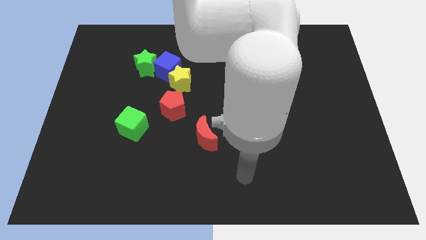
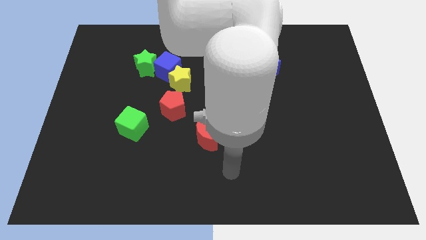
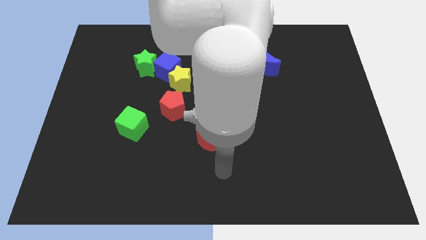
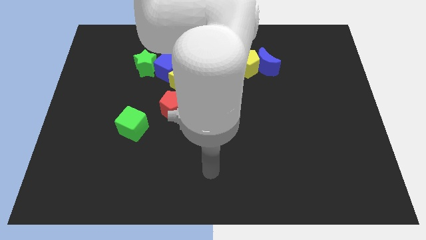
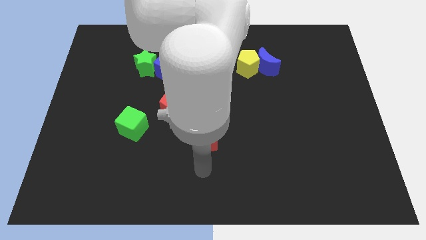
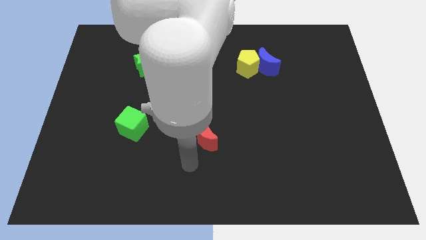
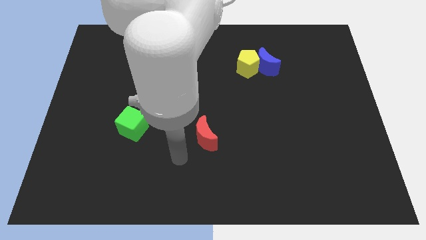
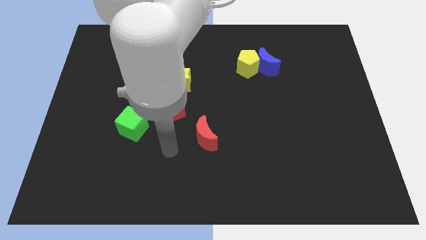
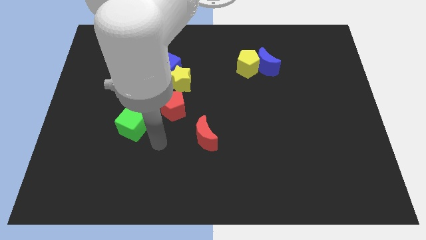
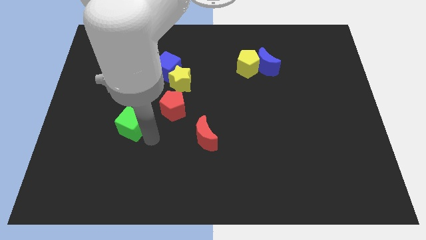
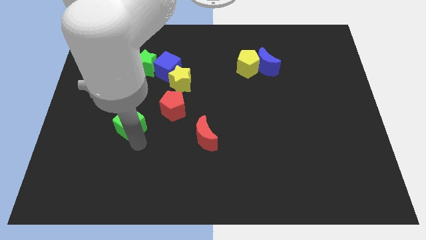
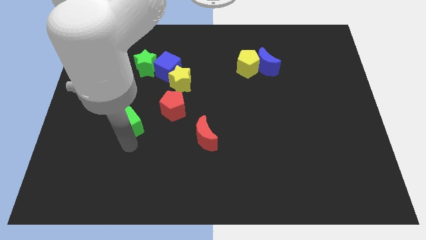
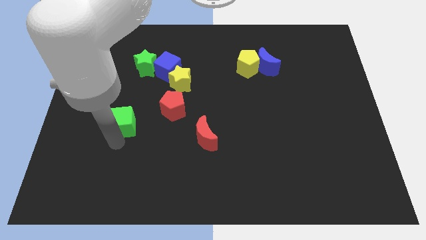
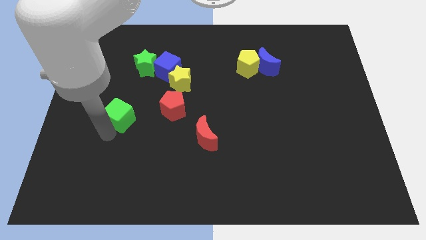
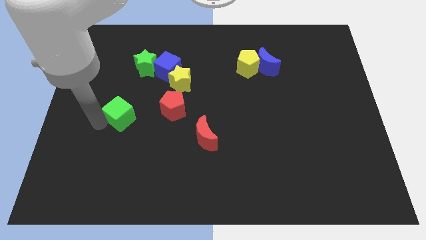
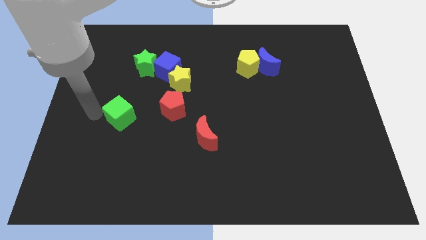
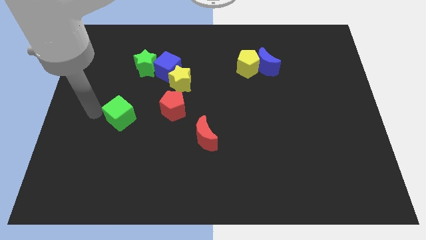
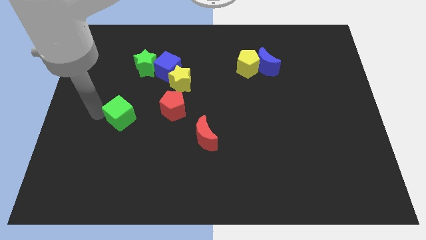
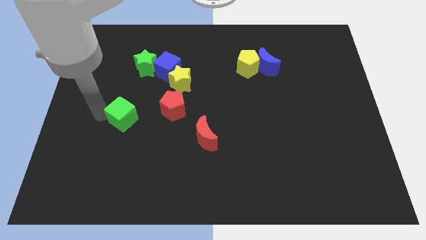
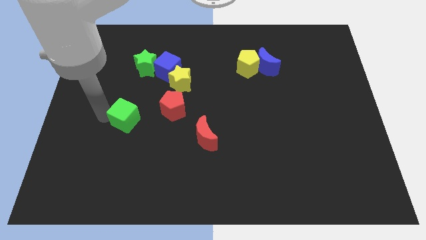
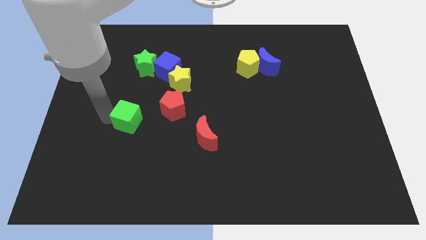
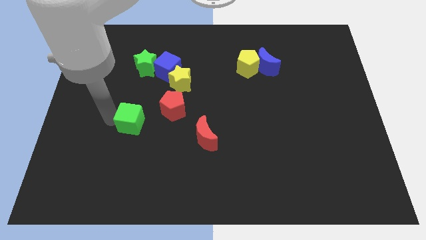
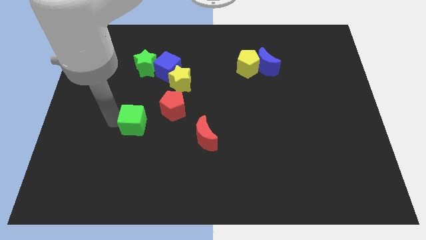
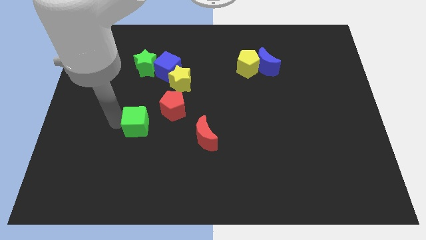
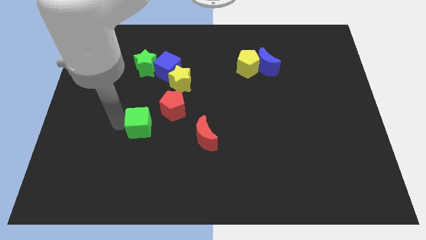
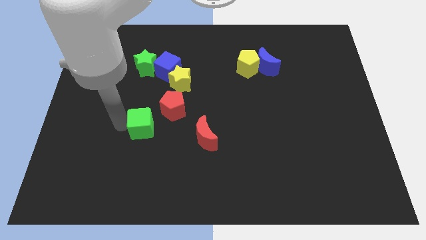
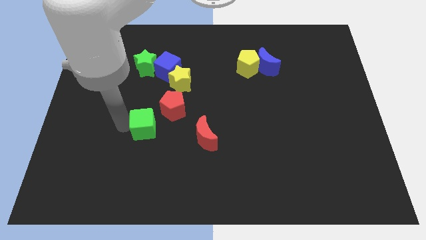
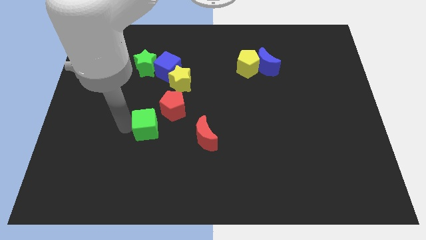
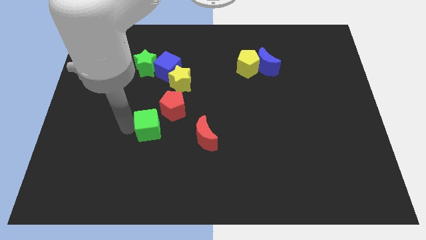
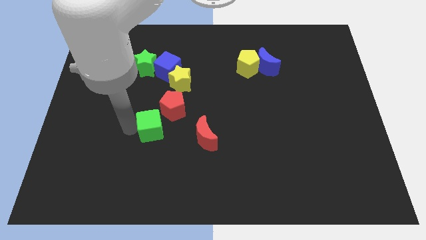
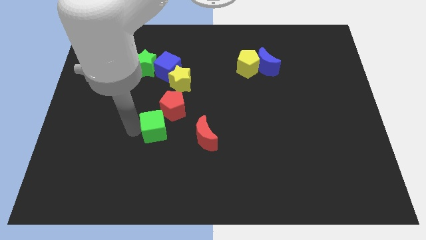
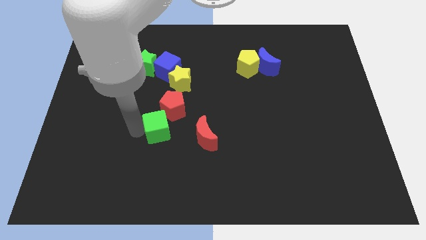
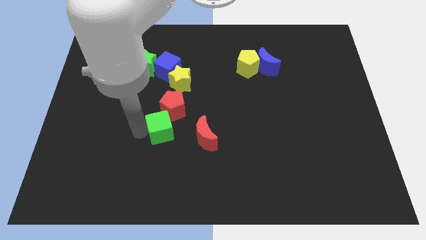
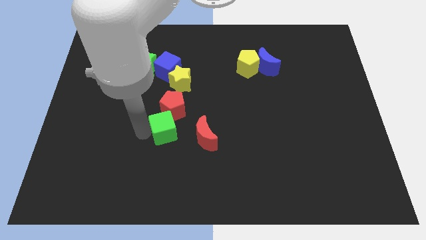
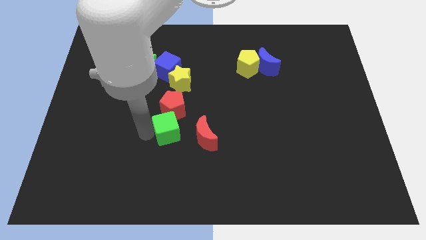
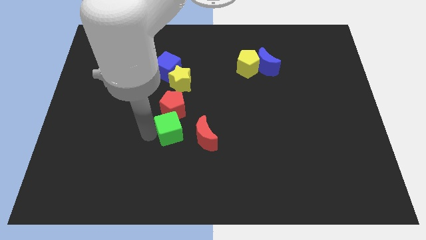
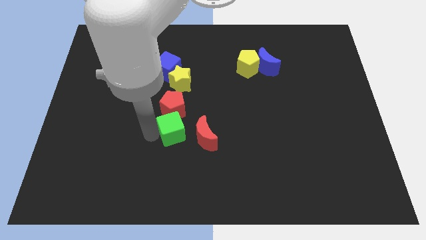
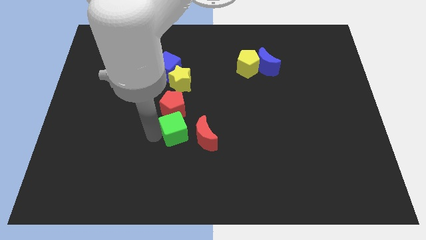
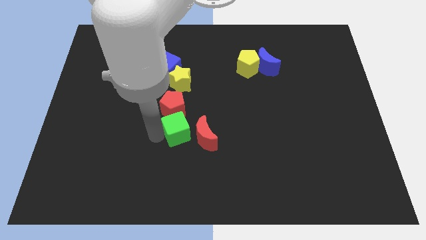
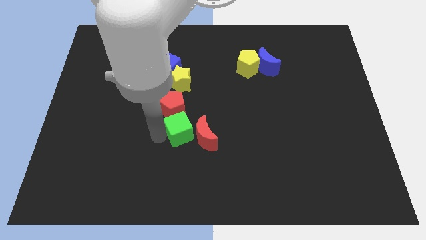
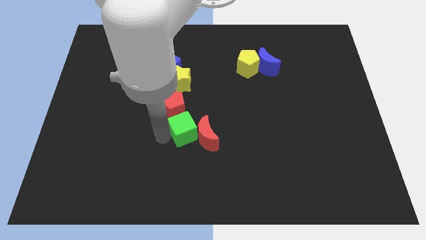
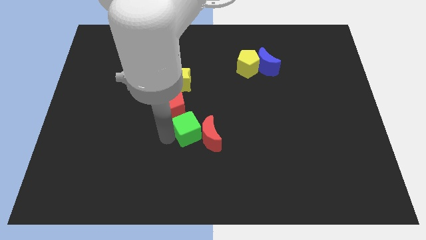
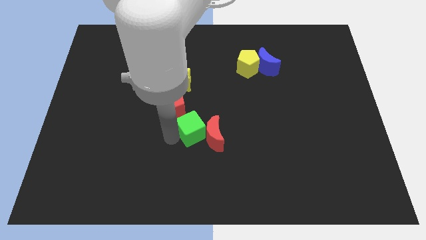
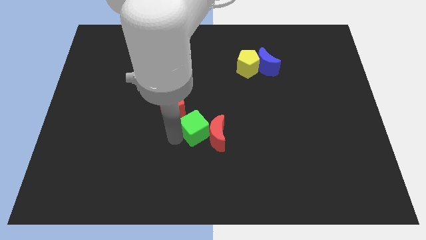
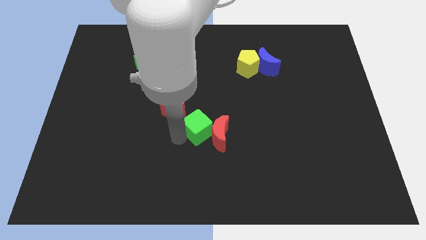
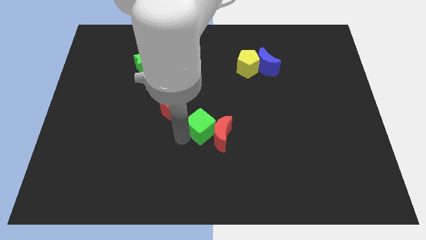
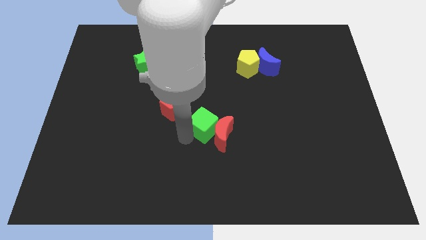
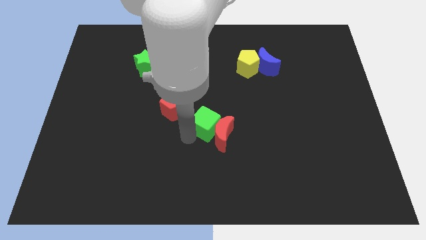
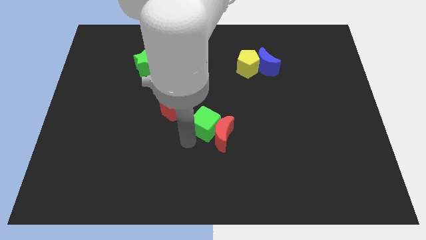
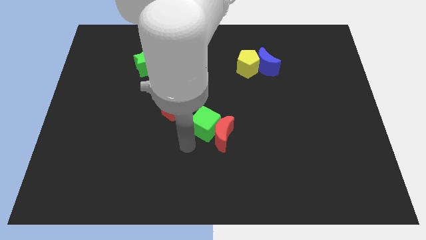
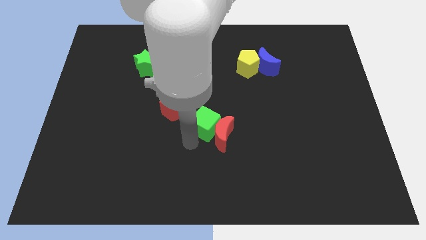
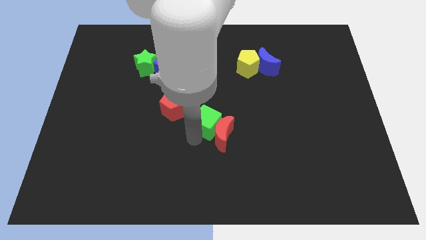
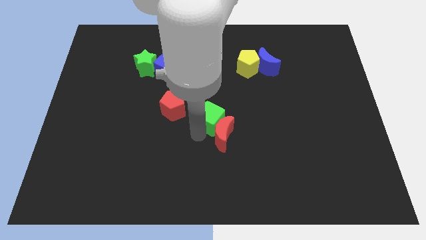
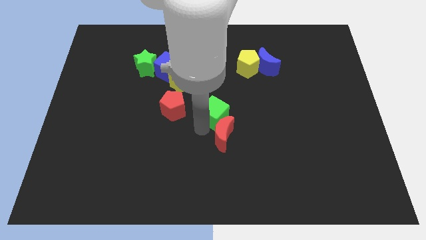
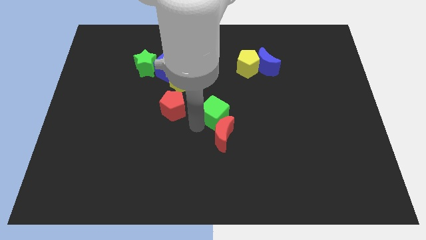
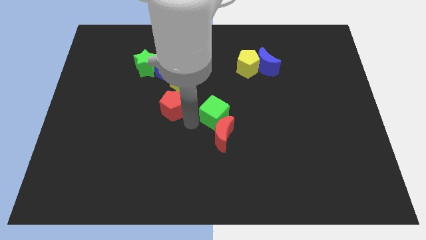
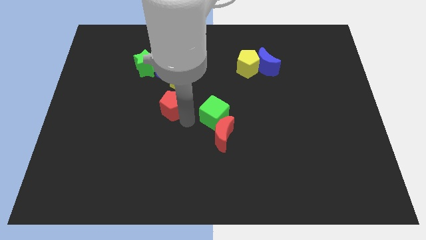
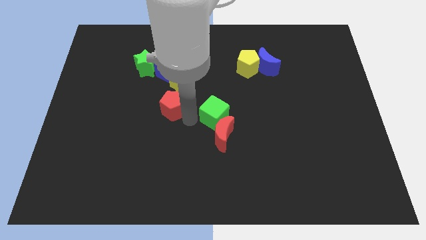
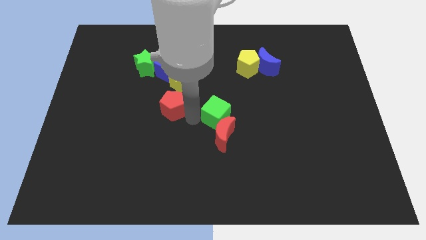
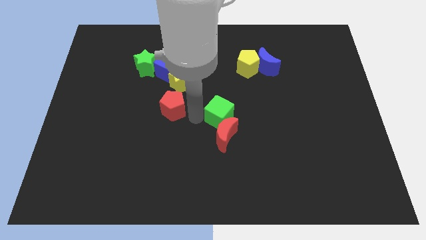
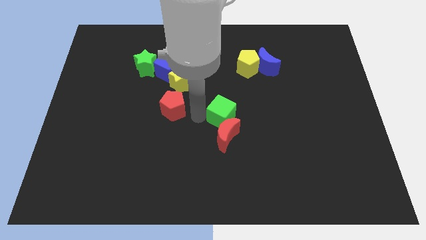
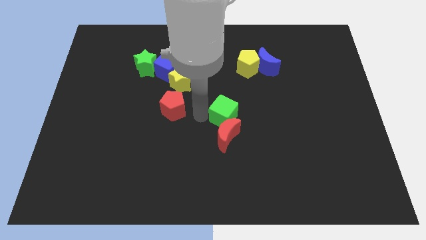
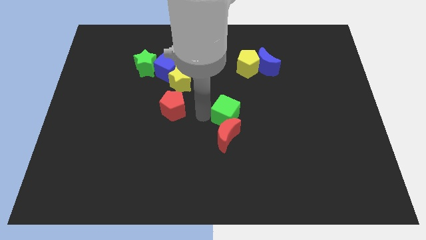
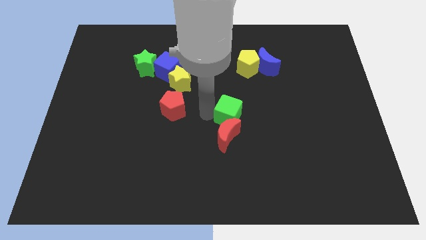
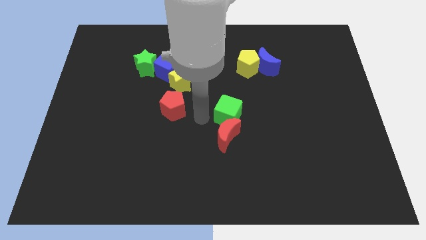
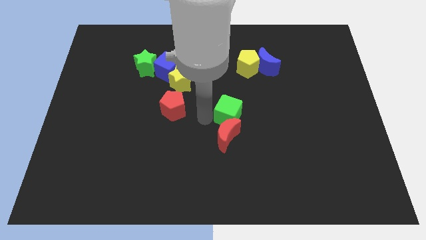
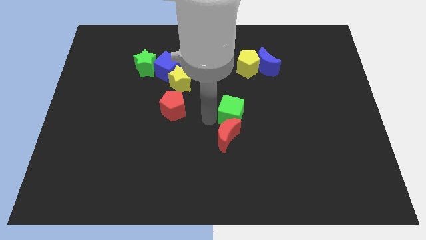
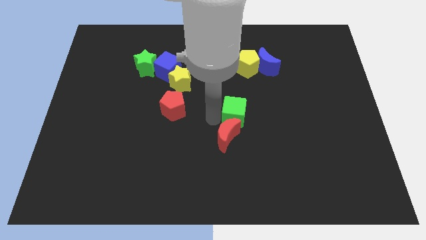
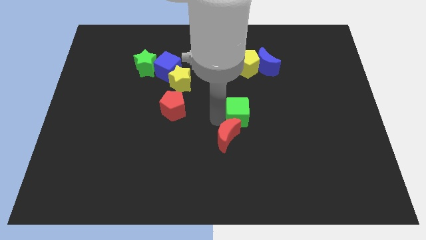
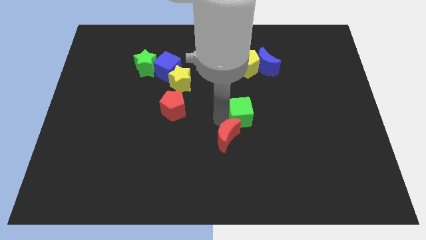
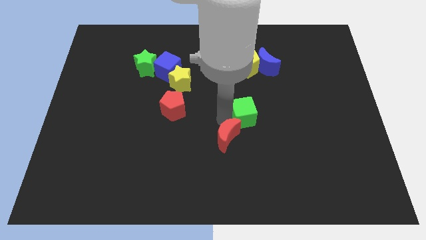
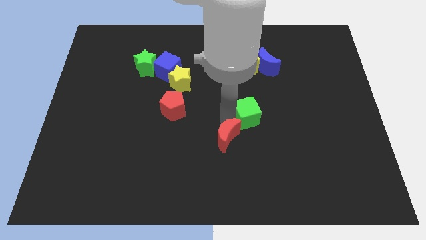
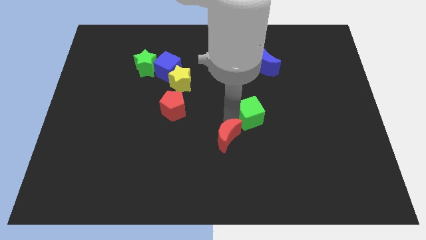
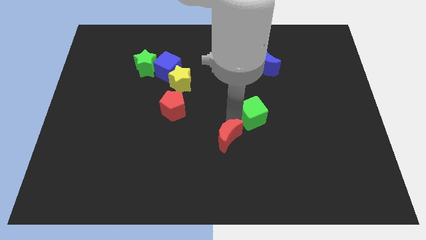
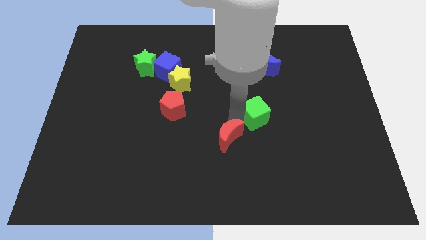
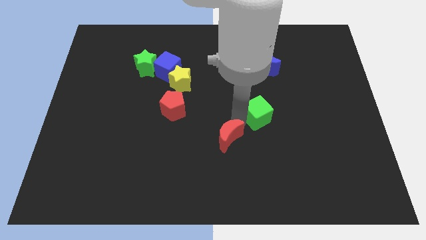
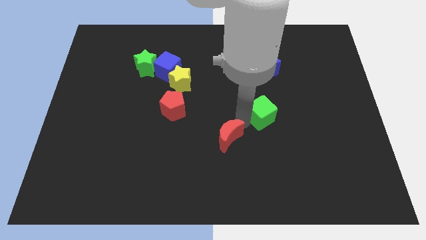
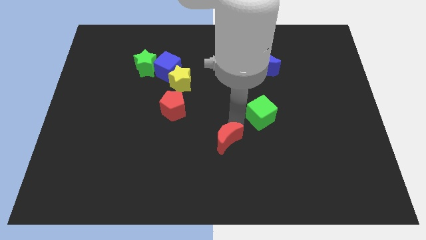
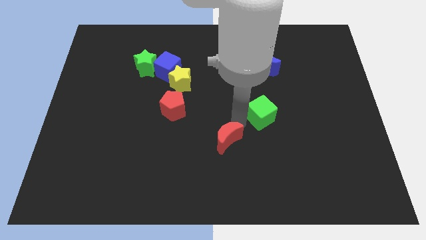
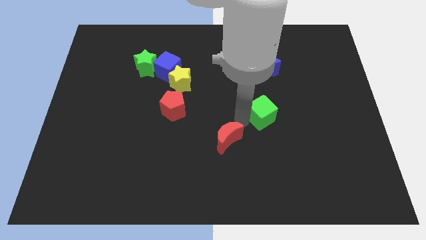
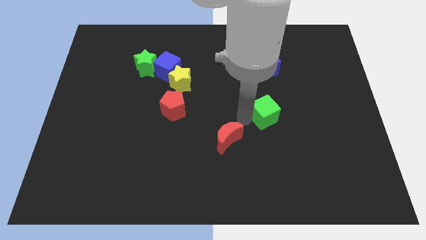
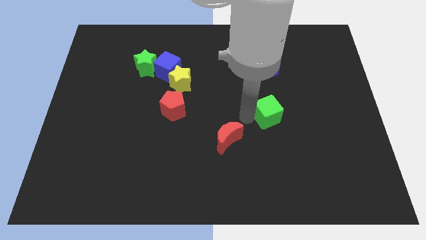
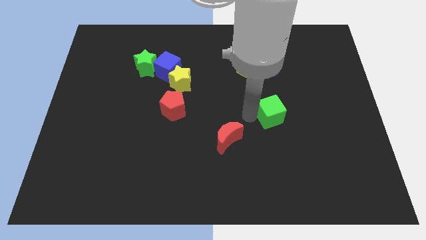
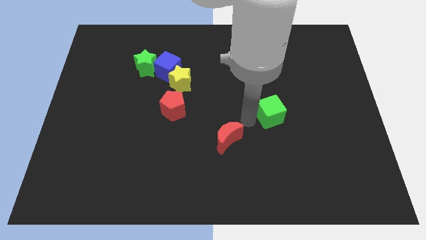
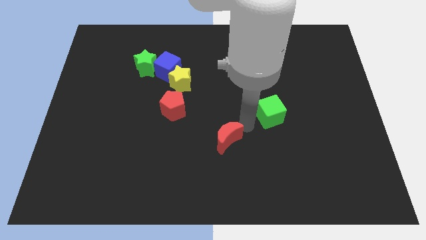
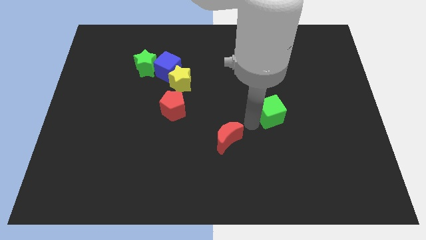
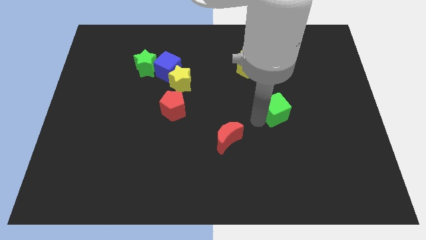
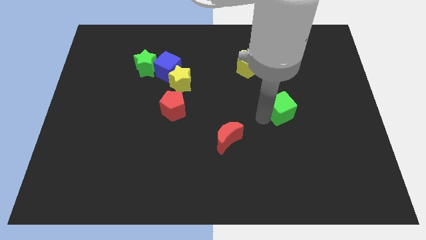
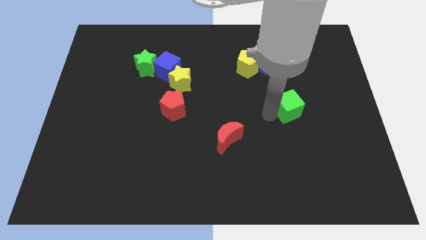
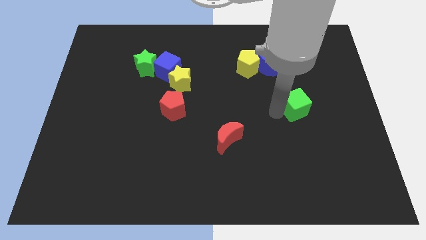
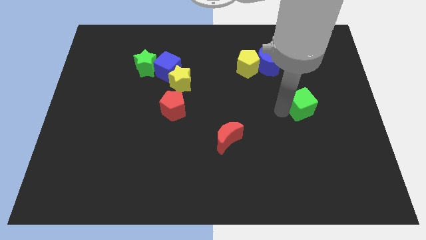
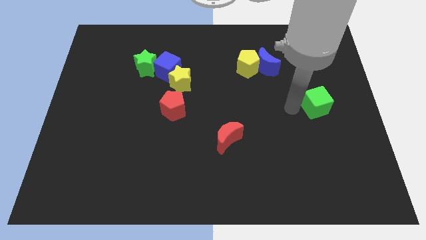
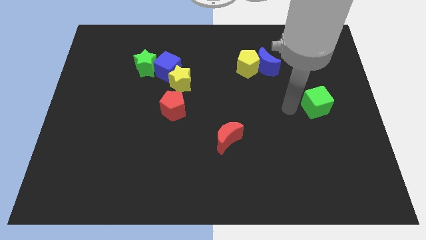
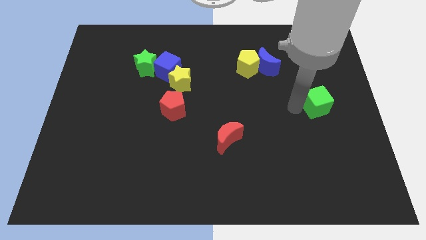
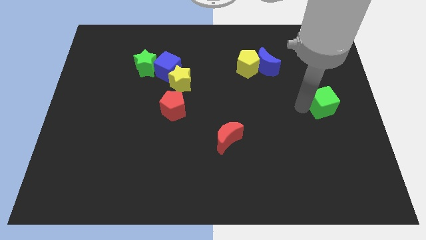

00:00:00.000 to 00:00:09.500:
push the green cube to the center right
